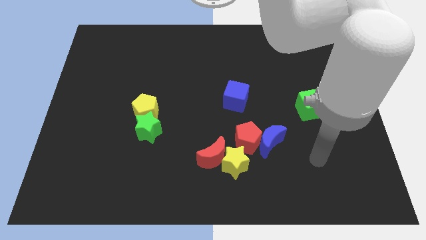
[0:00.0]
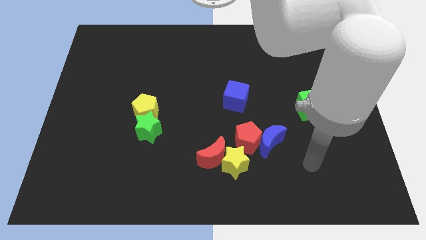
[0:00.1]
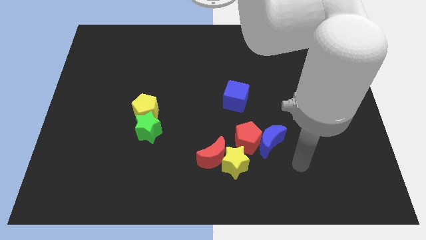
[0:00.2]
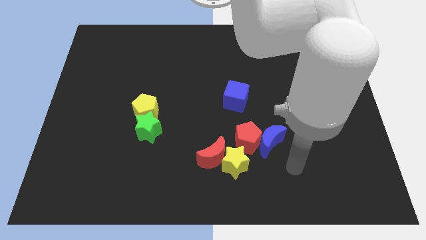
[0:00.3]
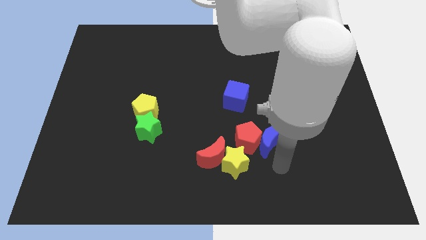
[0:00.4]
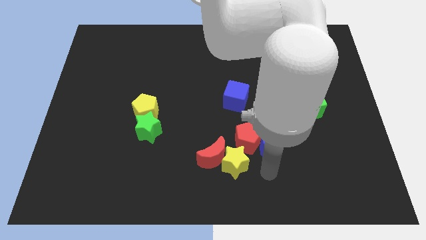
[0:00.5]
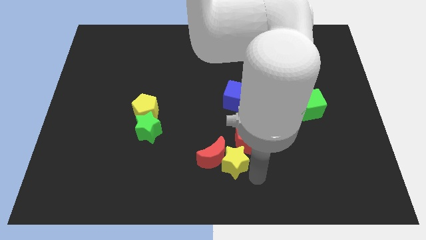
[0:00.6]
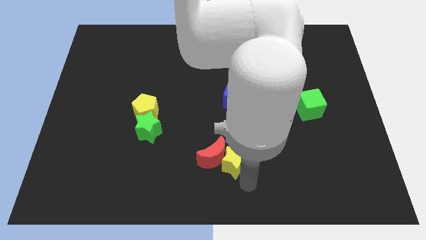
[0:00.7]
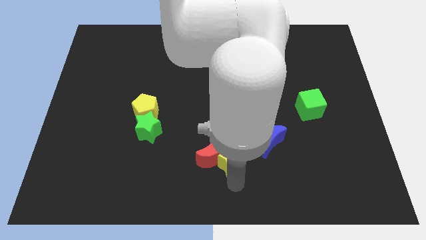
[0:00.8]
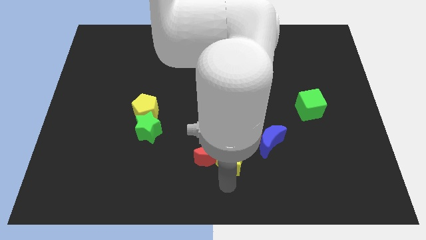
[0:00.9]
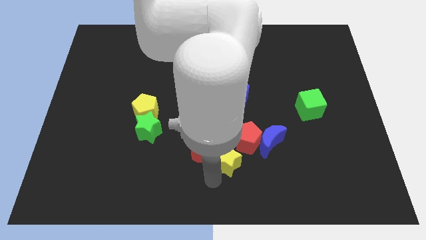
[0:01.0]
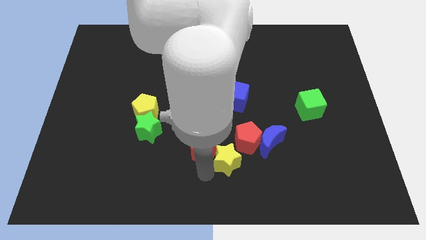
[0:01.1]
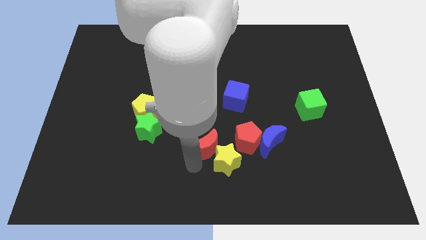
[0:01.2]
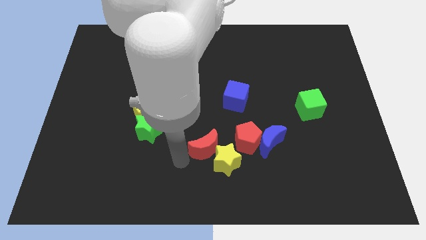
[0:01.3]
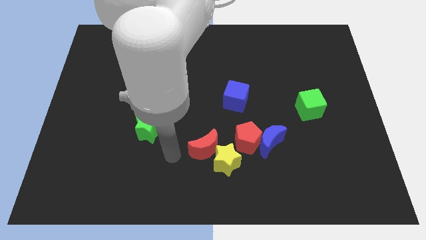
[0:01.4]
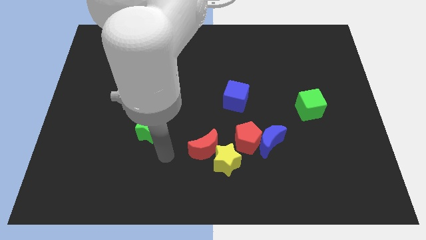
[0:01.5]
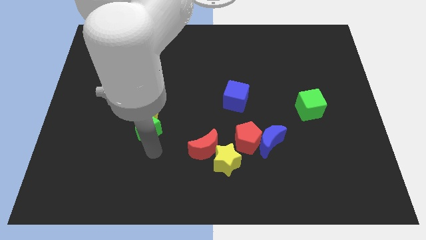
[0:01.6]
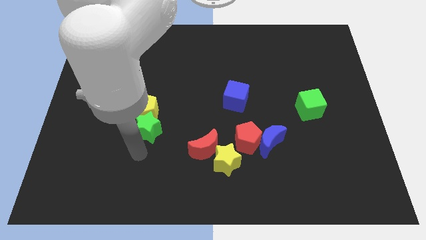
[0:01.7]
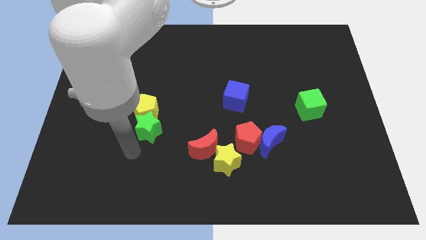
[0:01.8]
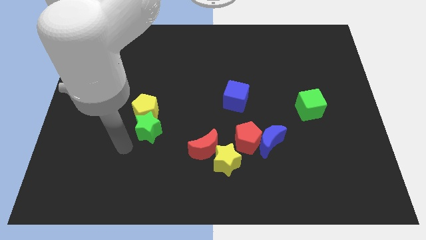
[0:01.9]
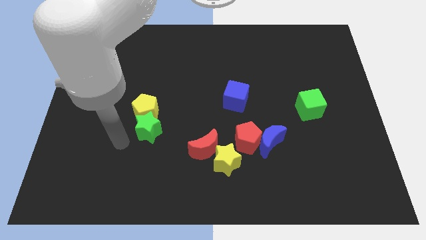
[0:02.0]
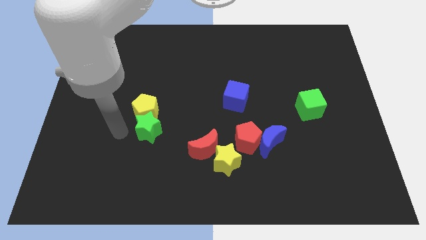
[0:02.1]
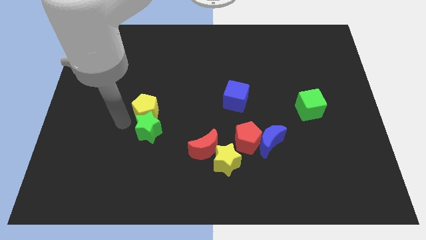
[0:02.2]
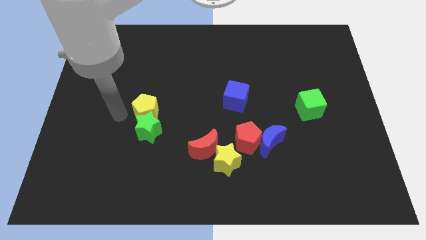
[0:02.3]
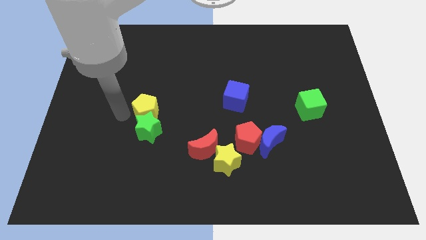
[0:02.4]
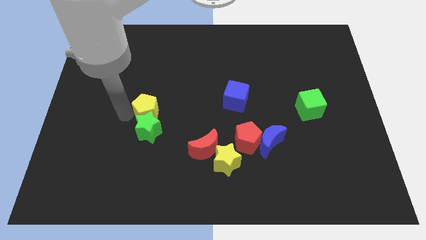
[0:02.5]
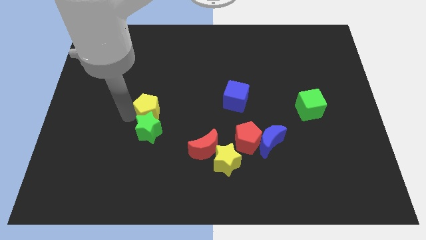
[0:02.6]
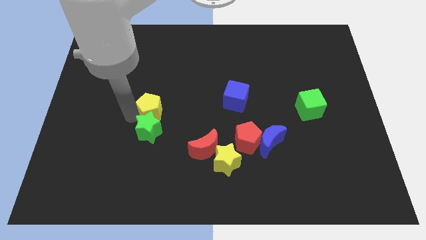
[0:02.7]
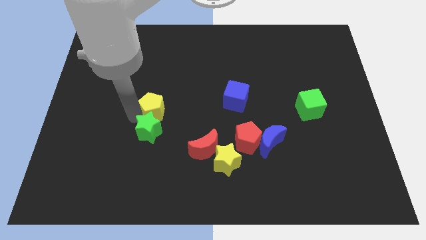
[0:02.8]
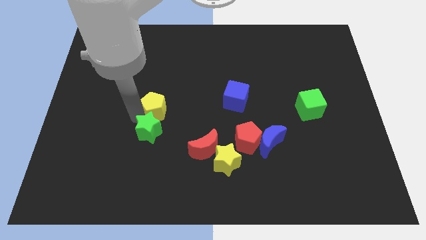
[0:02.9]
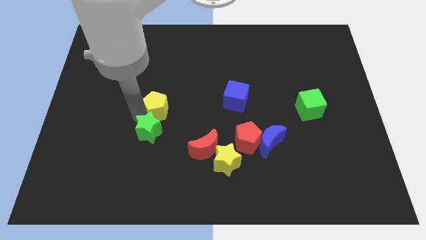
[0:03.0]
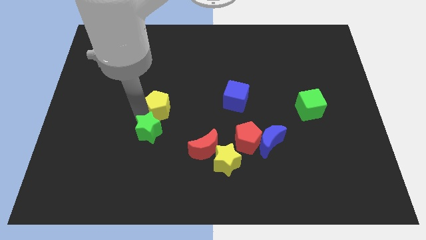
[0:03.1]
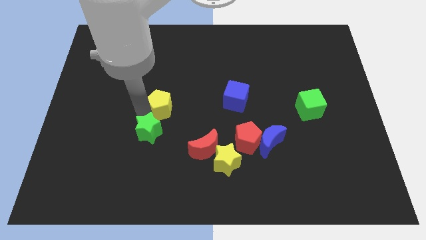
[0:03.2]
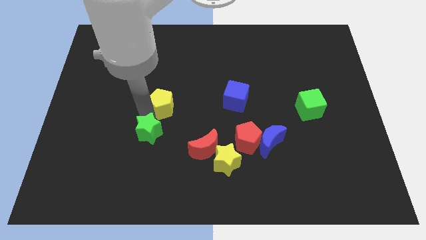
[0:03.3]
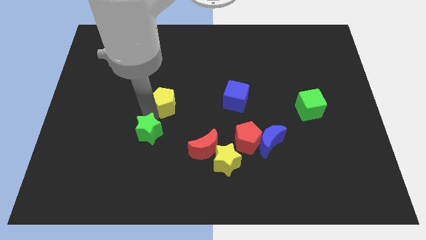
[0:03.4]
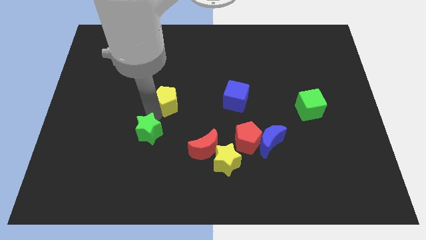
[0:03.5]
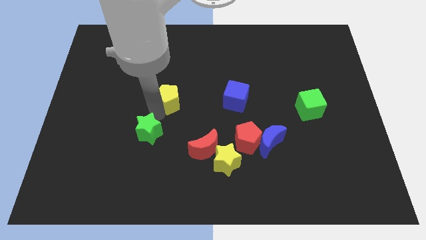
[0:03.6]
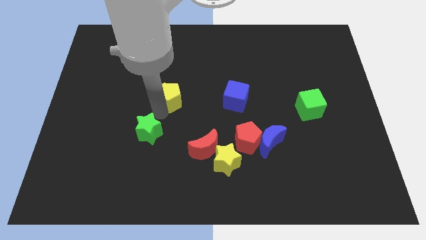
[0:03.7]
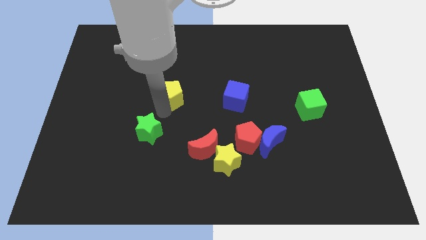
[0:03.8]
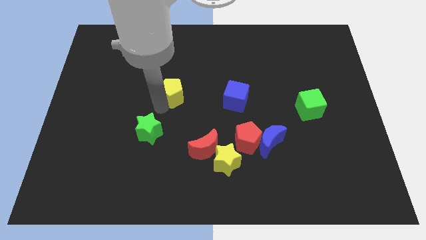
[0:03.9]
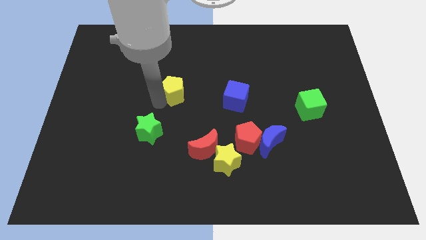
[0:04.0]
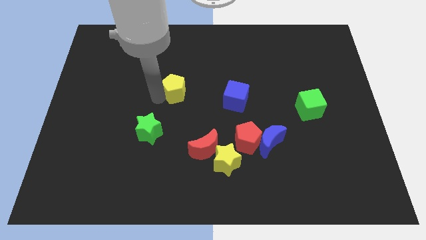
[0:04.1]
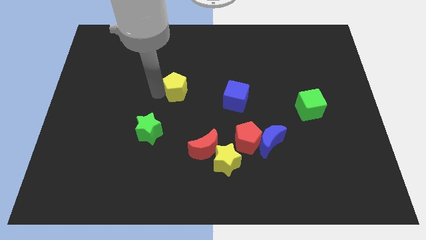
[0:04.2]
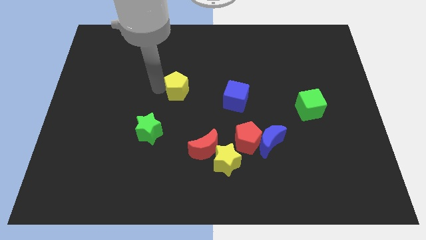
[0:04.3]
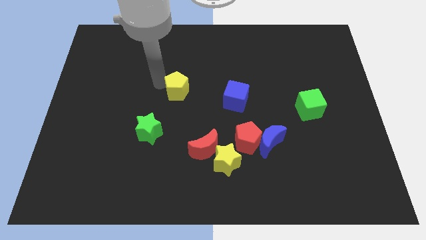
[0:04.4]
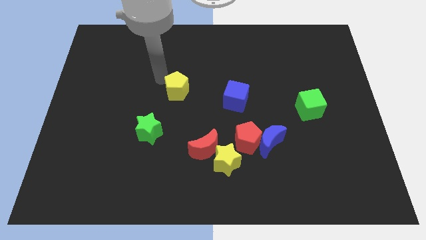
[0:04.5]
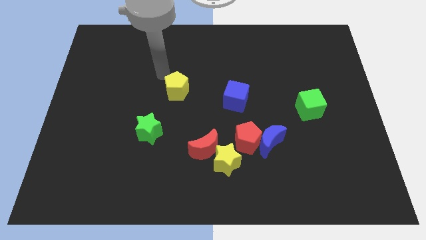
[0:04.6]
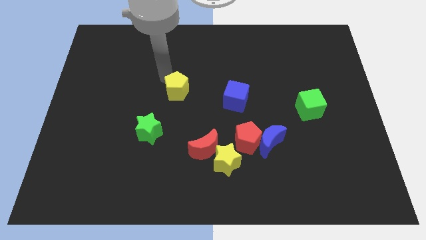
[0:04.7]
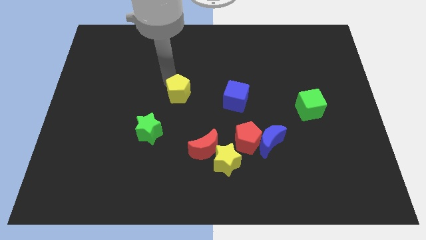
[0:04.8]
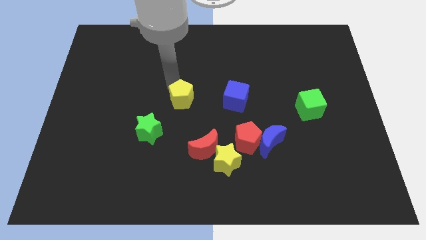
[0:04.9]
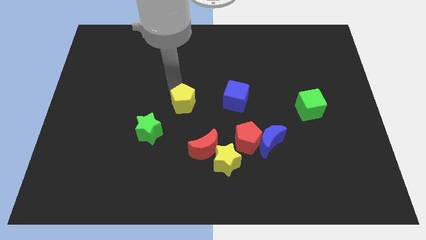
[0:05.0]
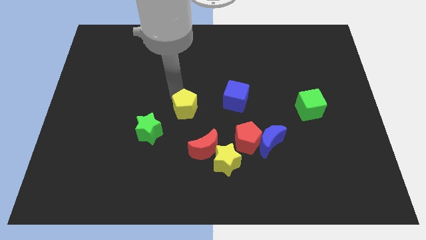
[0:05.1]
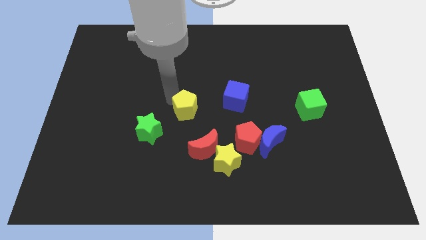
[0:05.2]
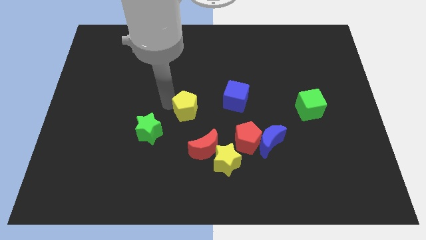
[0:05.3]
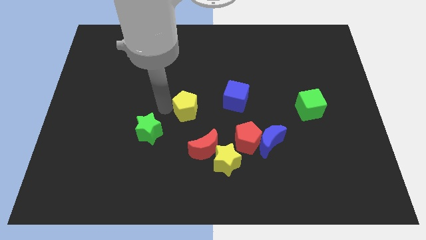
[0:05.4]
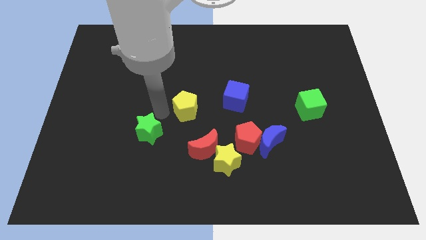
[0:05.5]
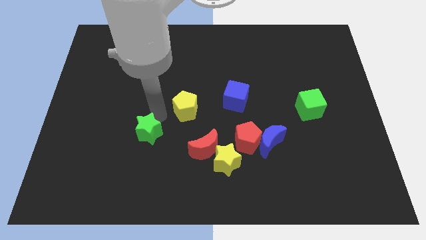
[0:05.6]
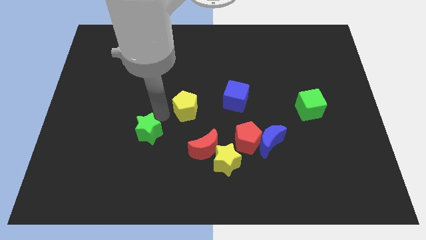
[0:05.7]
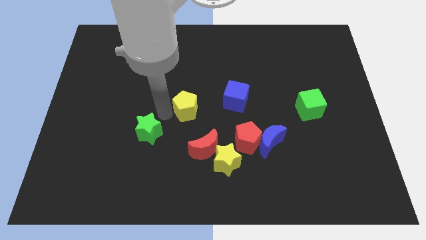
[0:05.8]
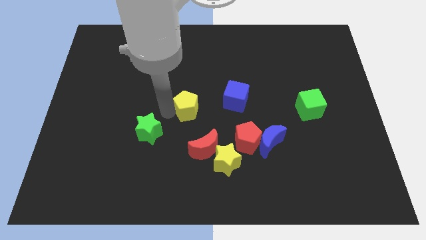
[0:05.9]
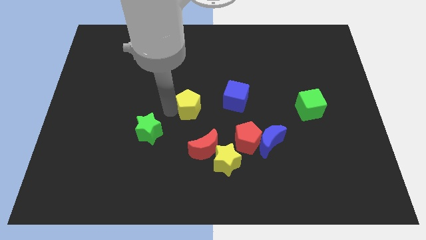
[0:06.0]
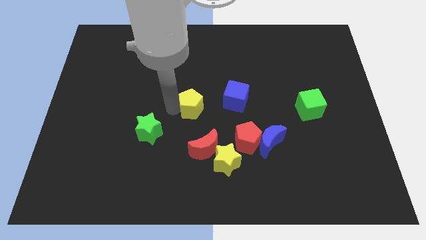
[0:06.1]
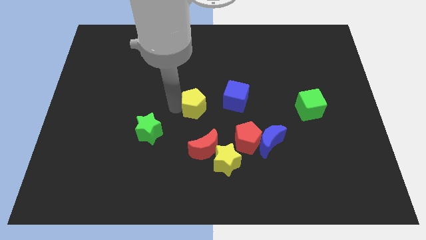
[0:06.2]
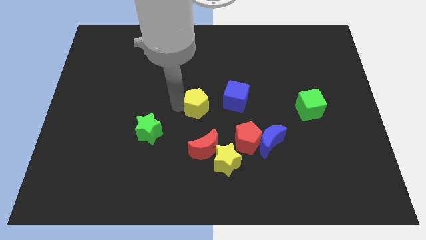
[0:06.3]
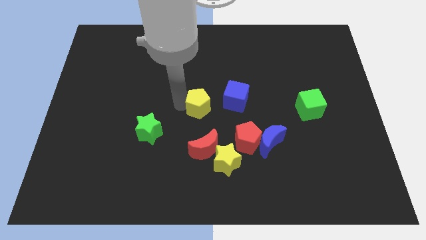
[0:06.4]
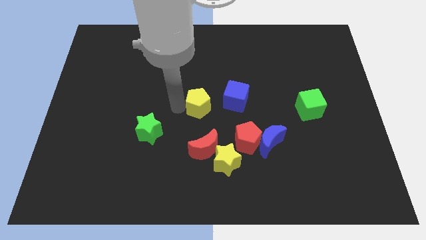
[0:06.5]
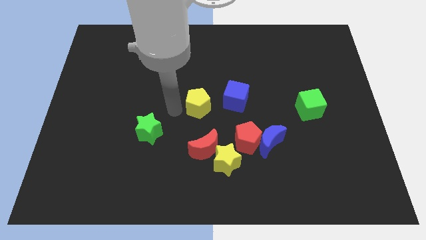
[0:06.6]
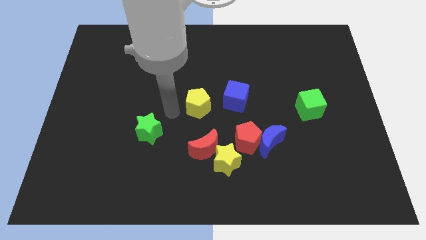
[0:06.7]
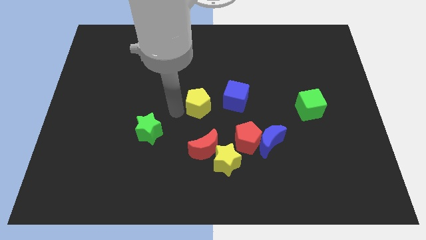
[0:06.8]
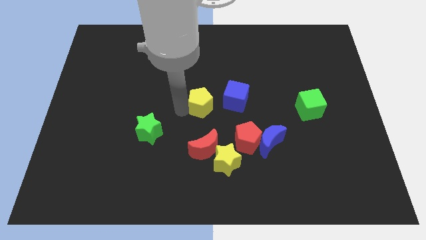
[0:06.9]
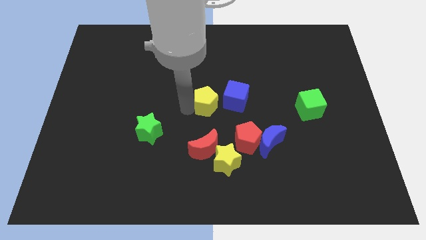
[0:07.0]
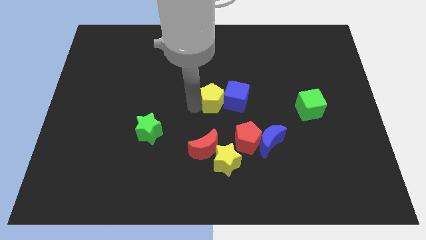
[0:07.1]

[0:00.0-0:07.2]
slide the yellow pentagon close to the blue cube
